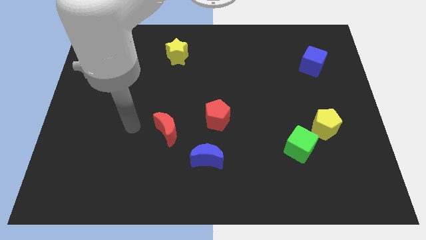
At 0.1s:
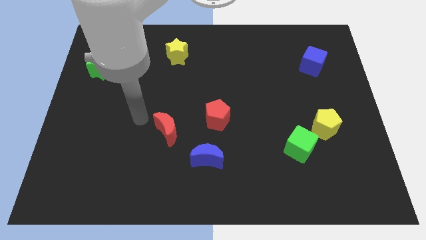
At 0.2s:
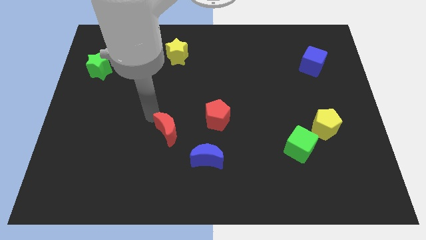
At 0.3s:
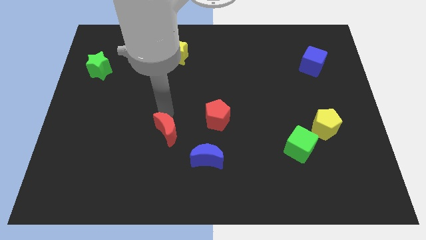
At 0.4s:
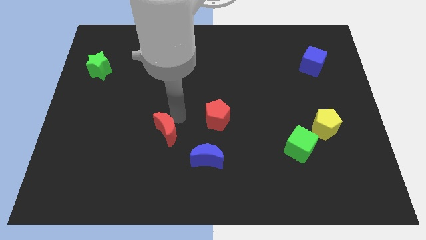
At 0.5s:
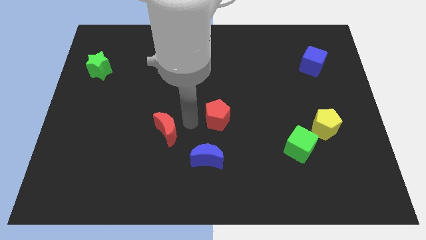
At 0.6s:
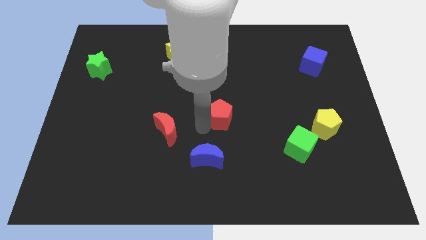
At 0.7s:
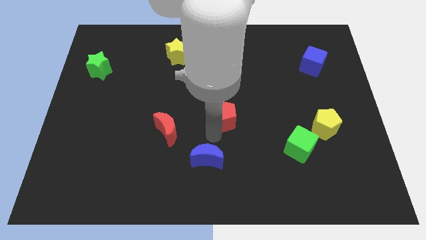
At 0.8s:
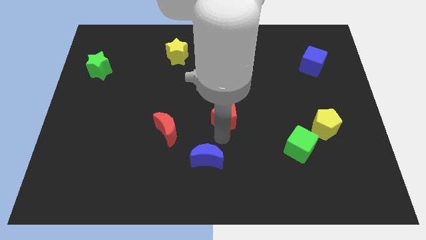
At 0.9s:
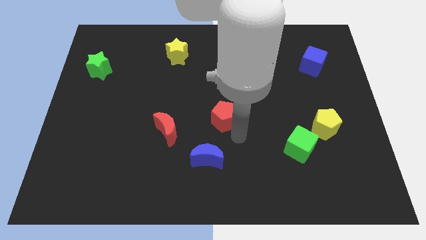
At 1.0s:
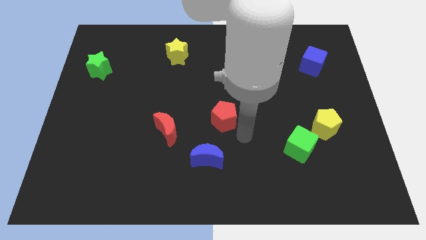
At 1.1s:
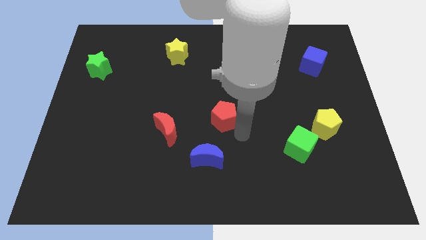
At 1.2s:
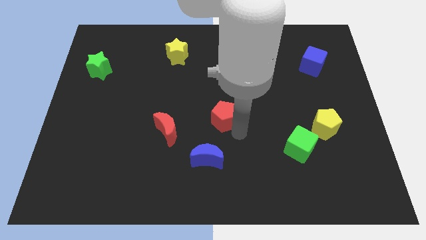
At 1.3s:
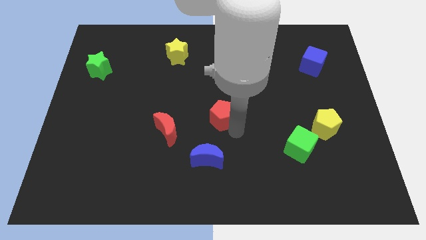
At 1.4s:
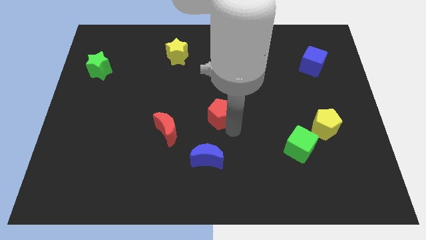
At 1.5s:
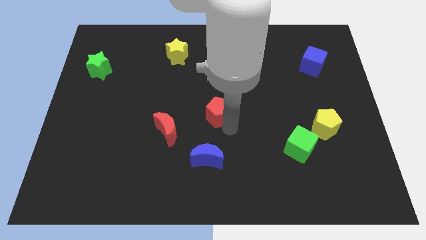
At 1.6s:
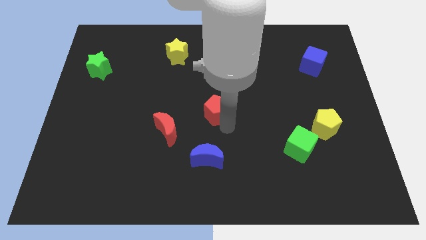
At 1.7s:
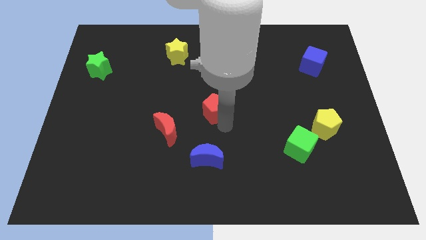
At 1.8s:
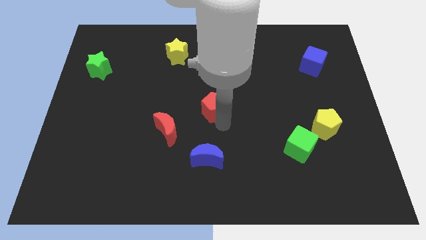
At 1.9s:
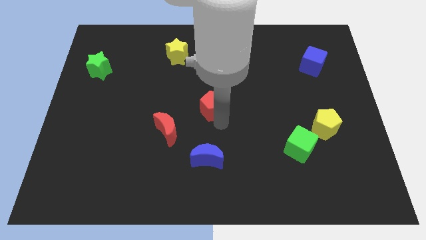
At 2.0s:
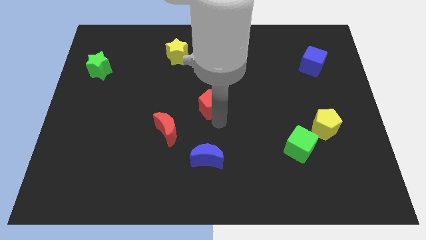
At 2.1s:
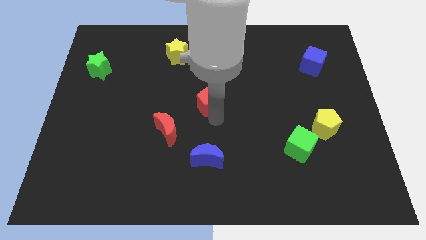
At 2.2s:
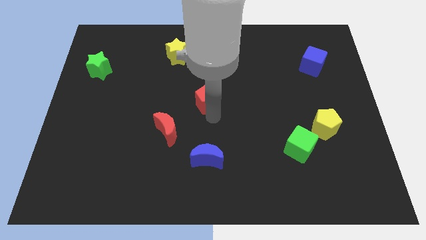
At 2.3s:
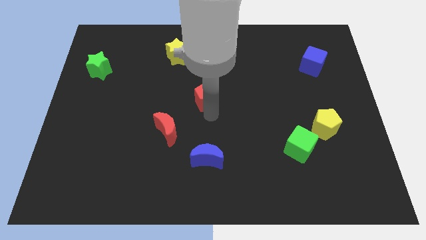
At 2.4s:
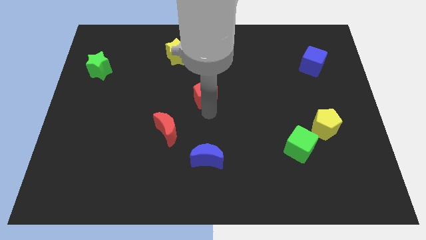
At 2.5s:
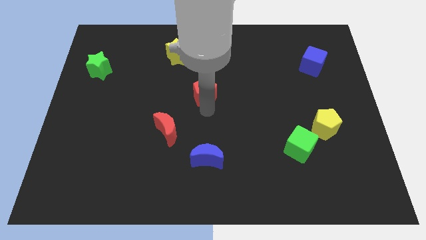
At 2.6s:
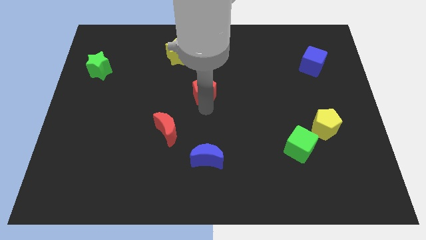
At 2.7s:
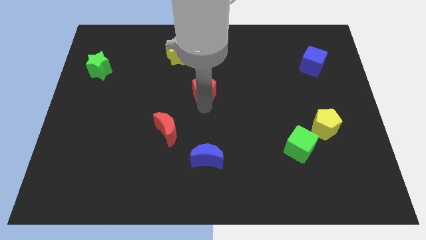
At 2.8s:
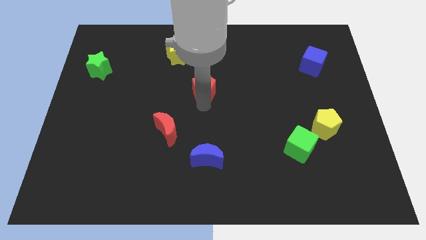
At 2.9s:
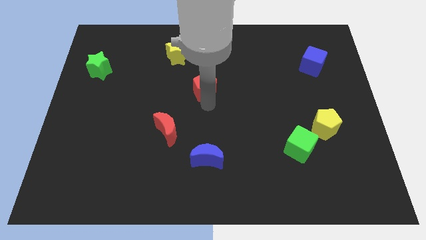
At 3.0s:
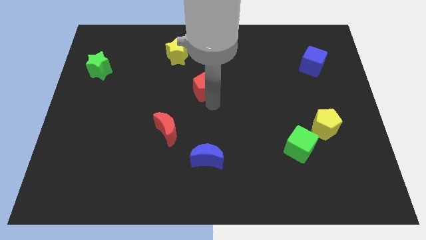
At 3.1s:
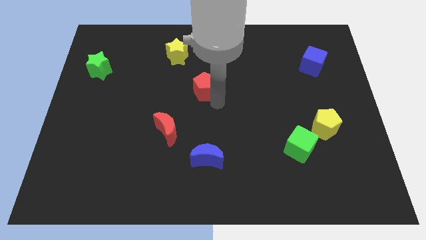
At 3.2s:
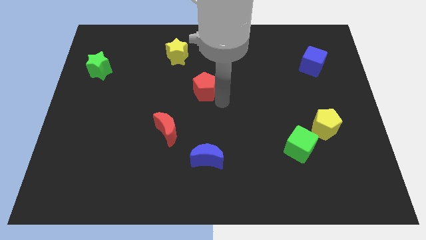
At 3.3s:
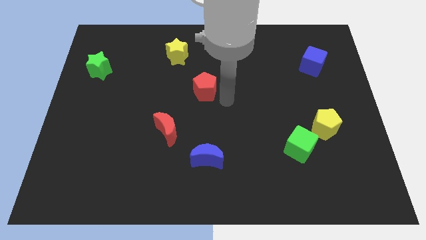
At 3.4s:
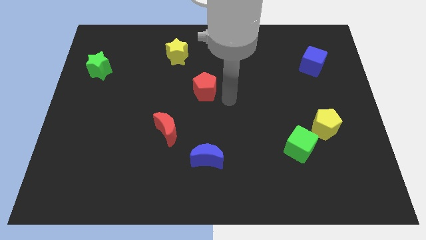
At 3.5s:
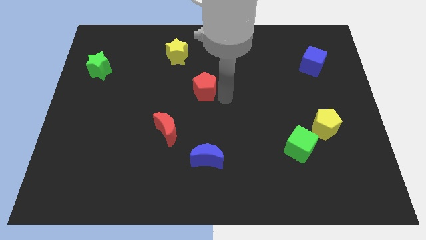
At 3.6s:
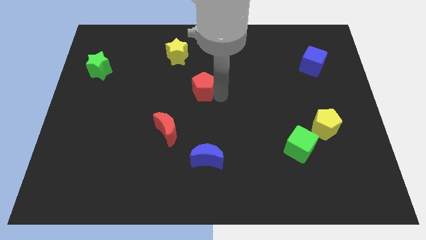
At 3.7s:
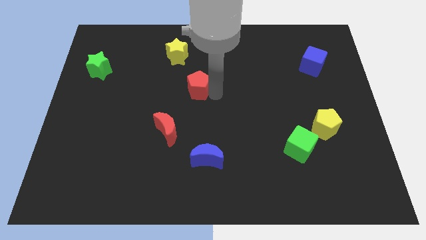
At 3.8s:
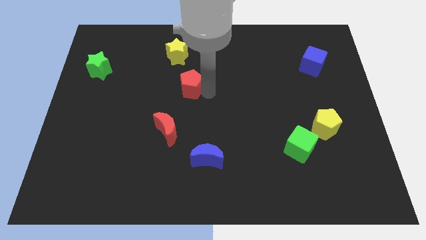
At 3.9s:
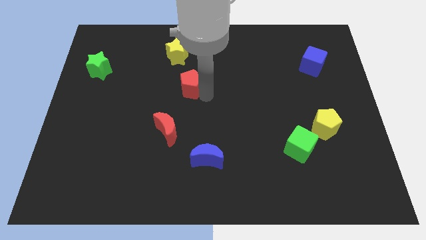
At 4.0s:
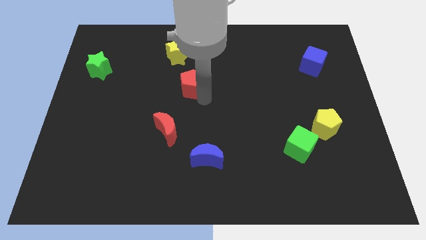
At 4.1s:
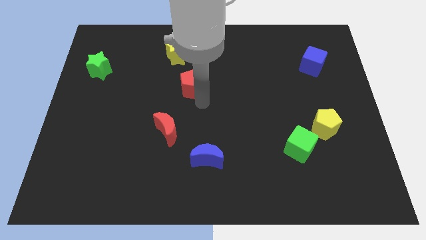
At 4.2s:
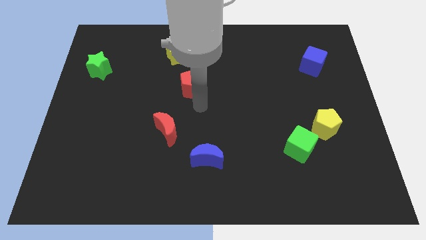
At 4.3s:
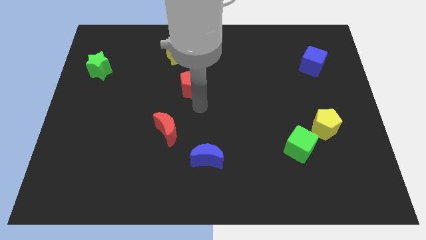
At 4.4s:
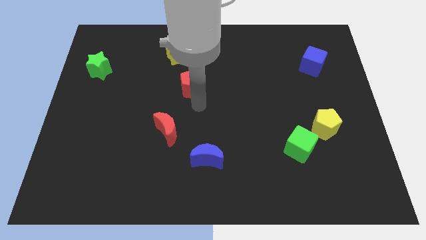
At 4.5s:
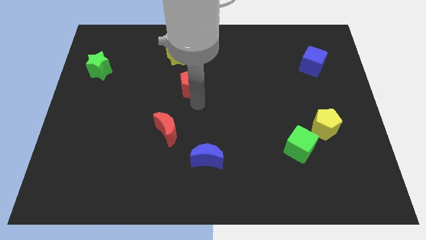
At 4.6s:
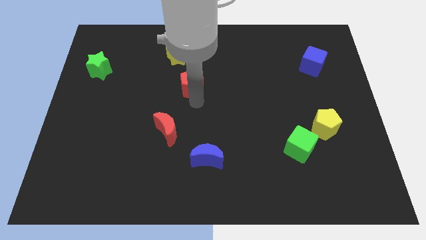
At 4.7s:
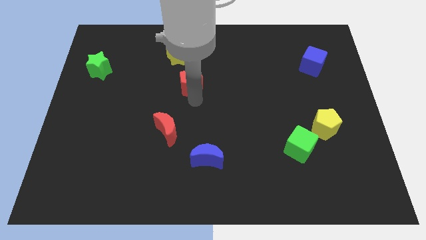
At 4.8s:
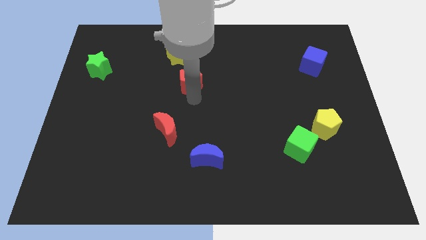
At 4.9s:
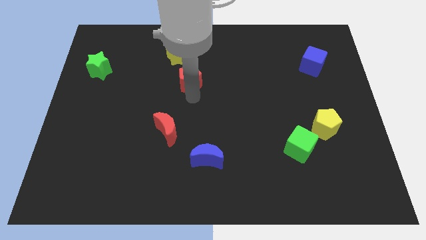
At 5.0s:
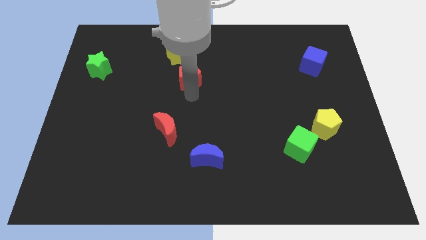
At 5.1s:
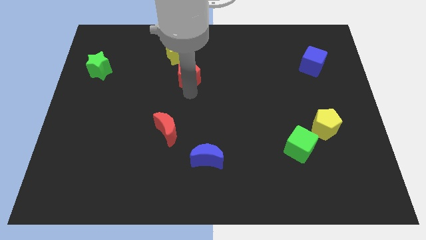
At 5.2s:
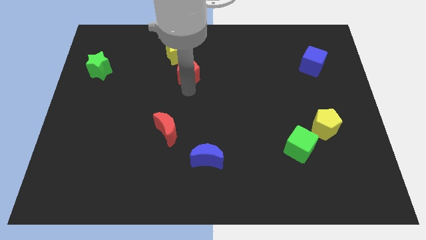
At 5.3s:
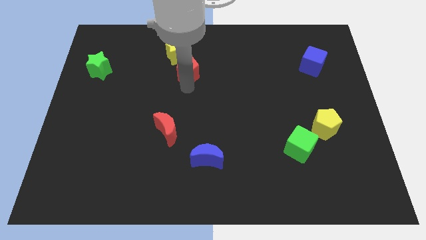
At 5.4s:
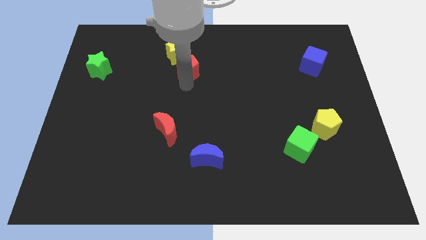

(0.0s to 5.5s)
move the red pentagon to the yellow star
